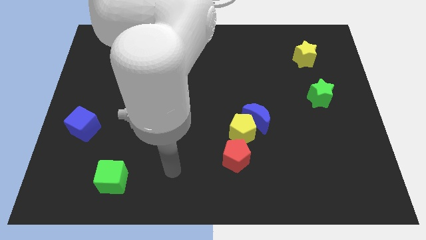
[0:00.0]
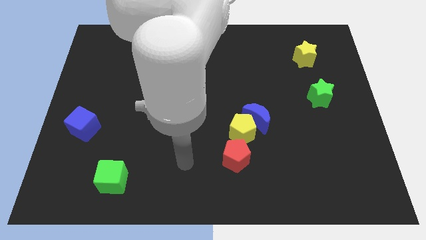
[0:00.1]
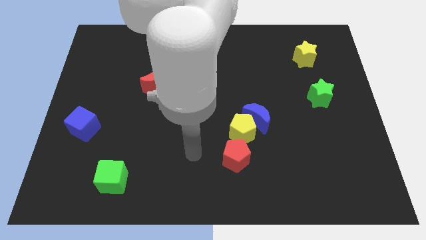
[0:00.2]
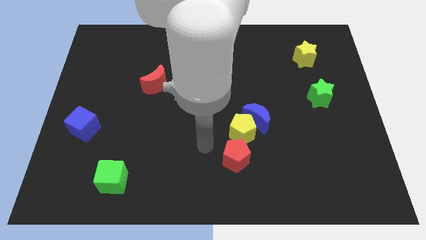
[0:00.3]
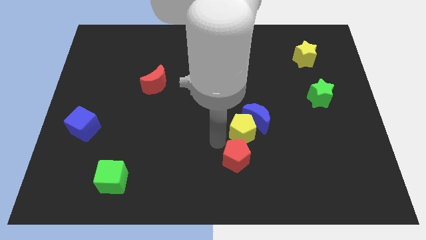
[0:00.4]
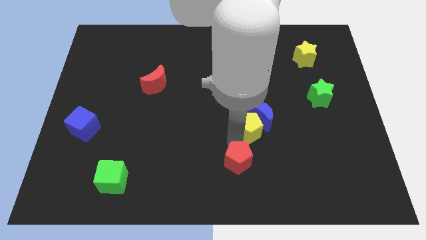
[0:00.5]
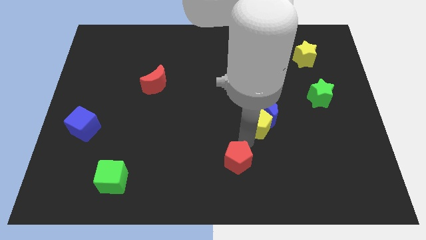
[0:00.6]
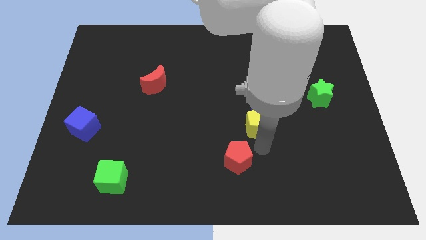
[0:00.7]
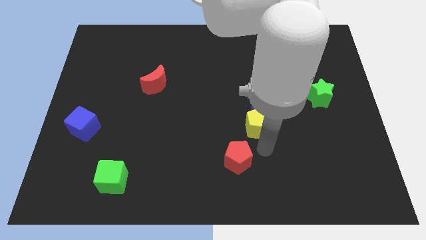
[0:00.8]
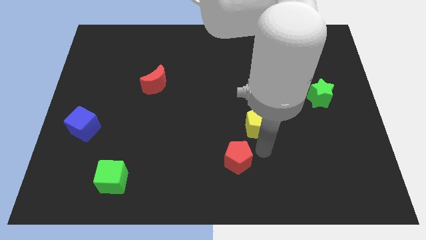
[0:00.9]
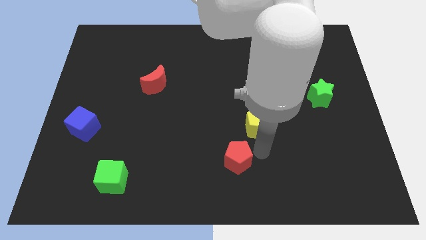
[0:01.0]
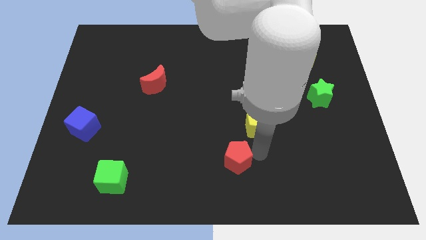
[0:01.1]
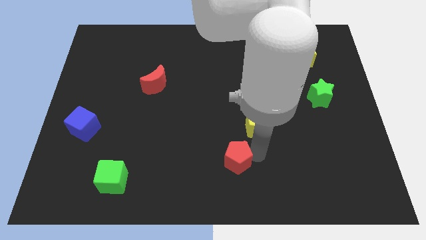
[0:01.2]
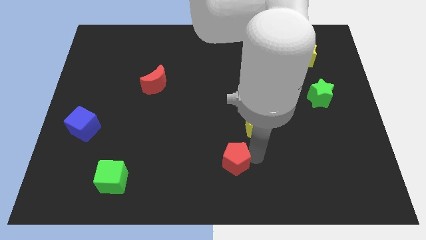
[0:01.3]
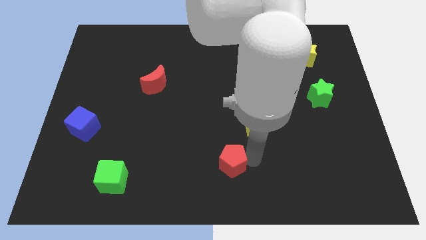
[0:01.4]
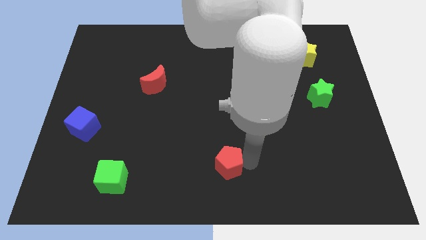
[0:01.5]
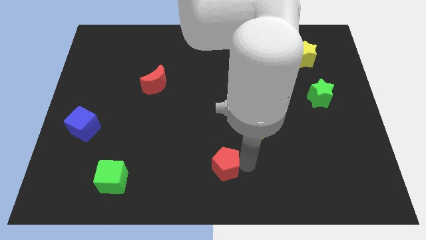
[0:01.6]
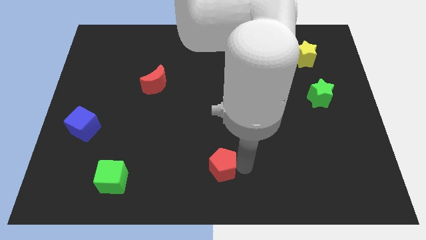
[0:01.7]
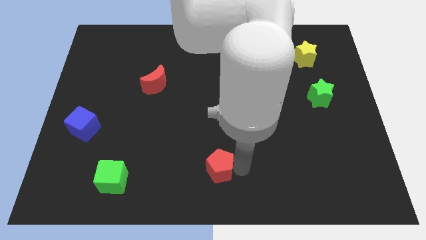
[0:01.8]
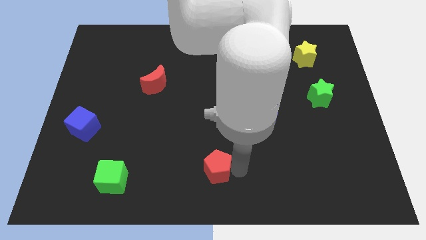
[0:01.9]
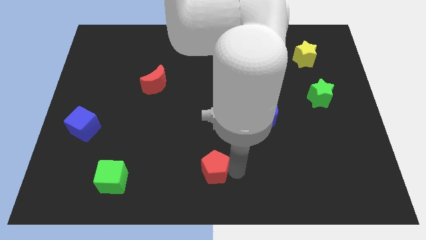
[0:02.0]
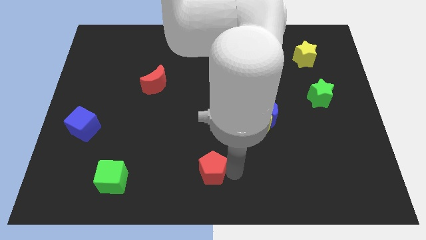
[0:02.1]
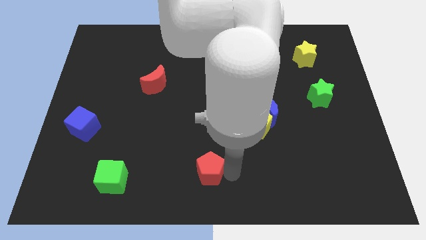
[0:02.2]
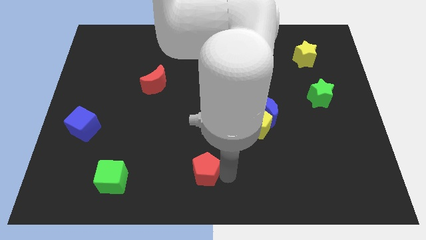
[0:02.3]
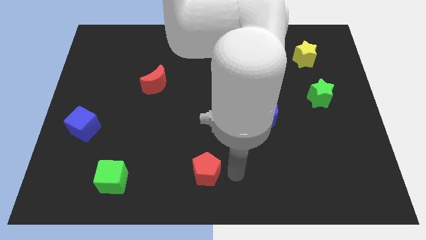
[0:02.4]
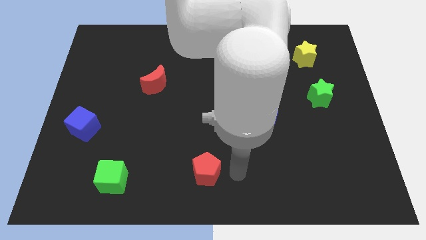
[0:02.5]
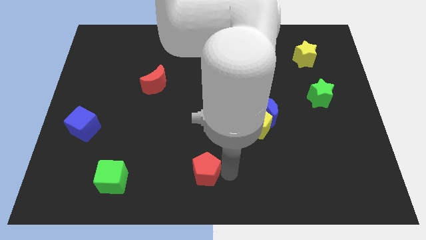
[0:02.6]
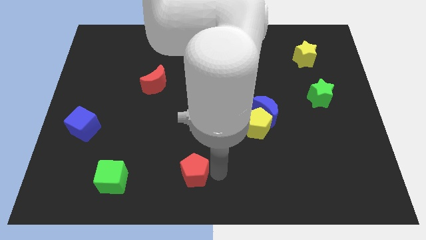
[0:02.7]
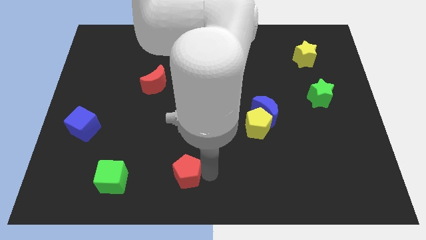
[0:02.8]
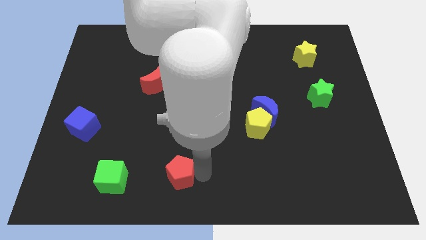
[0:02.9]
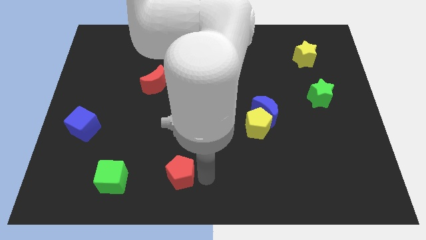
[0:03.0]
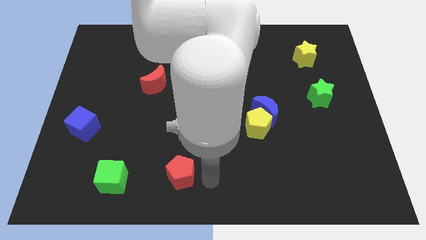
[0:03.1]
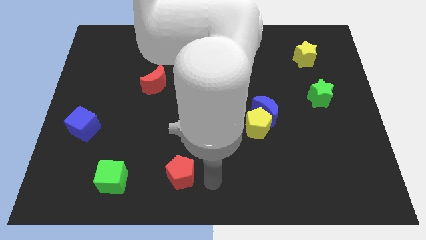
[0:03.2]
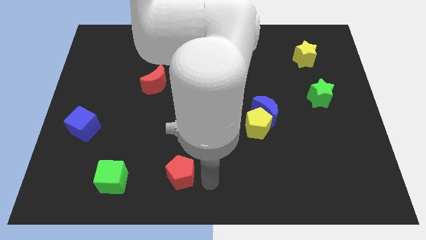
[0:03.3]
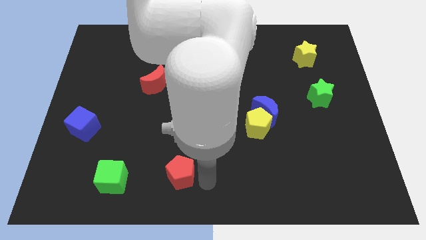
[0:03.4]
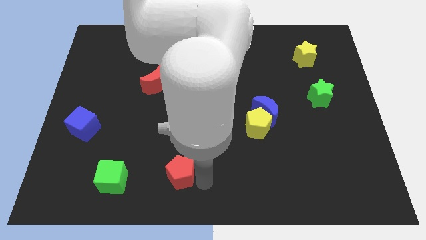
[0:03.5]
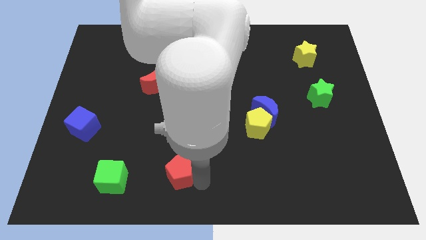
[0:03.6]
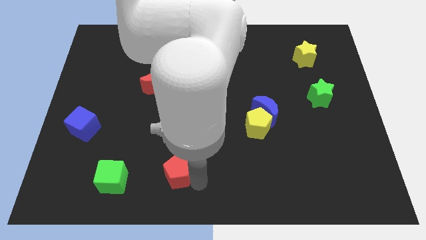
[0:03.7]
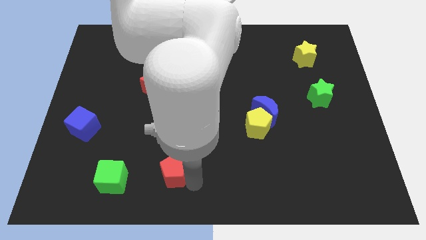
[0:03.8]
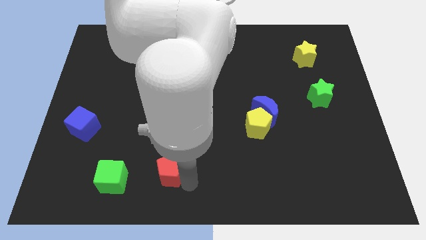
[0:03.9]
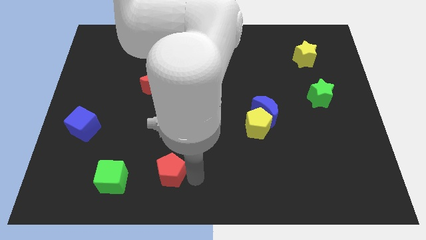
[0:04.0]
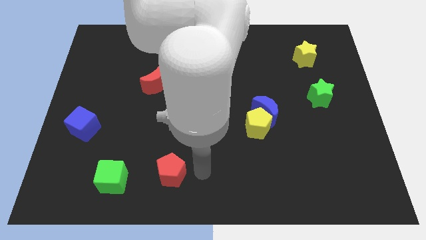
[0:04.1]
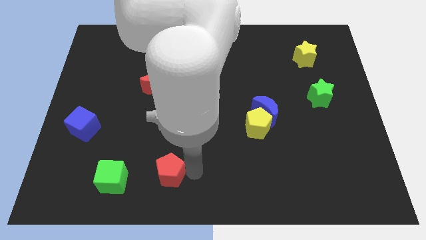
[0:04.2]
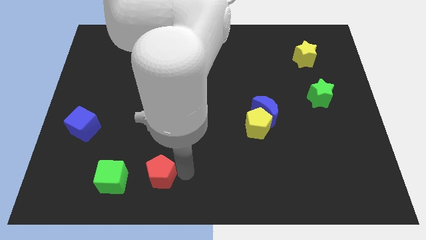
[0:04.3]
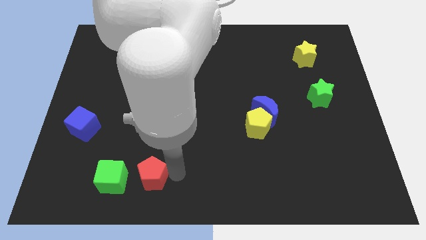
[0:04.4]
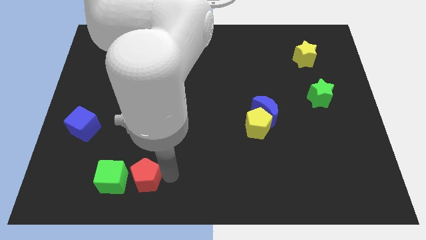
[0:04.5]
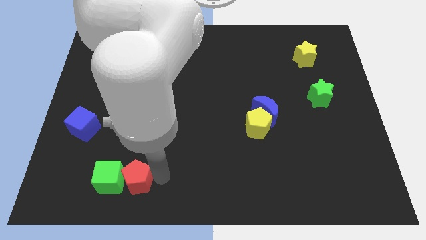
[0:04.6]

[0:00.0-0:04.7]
put the red pentagon to the green cube

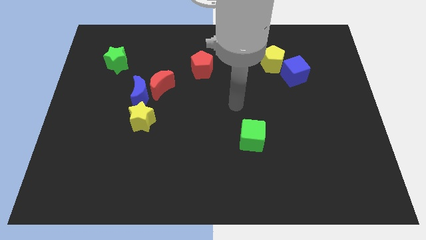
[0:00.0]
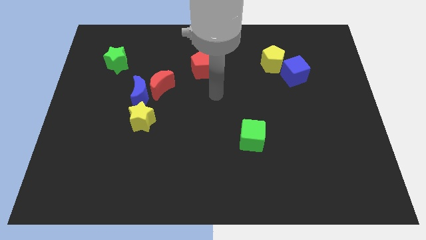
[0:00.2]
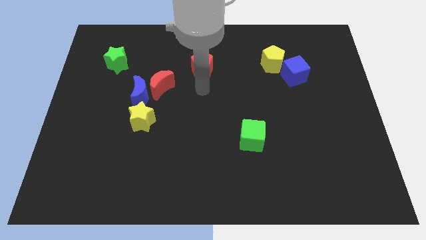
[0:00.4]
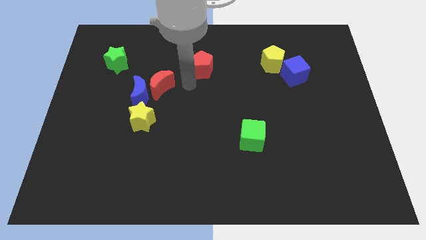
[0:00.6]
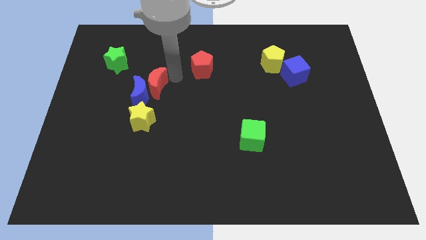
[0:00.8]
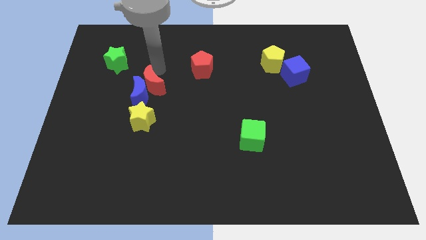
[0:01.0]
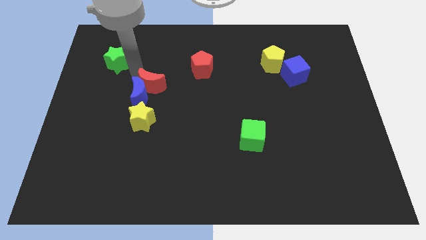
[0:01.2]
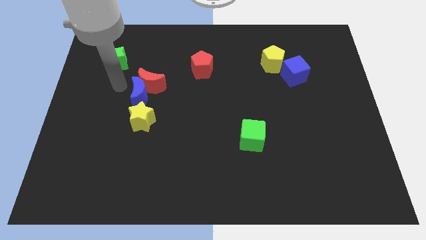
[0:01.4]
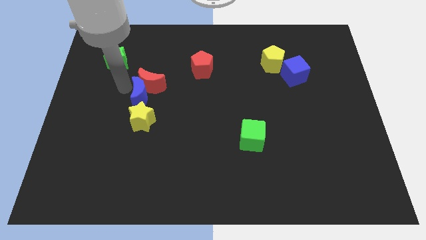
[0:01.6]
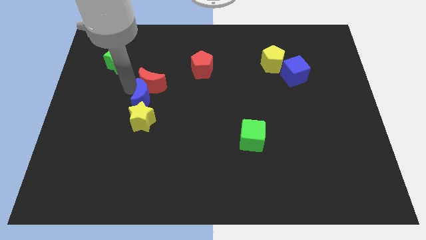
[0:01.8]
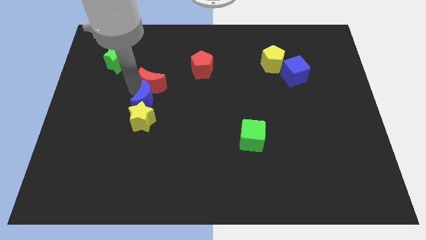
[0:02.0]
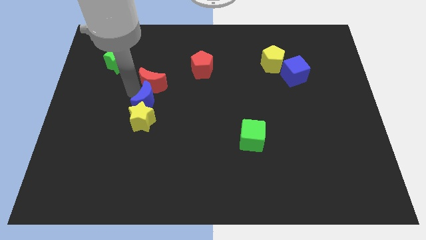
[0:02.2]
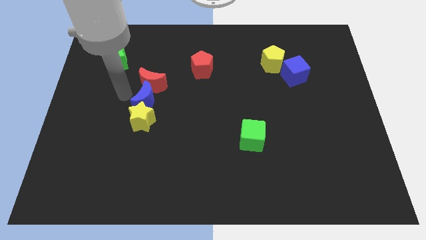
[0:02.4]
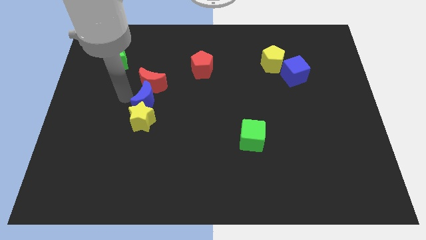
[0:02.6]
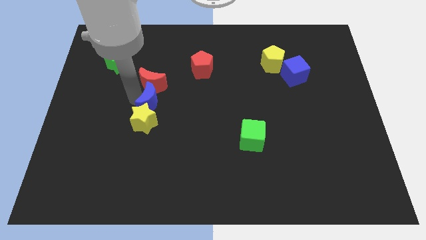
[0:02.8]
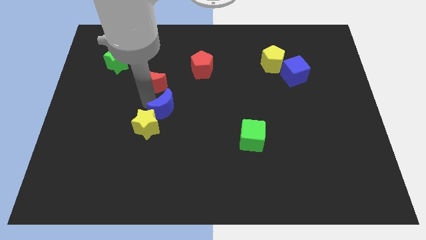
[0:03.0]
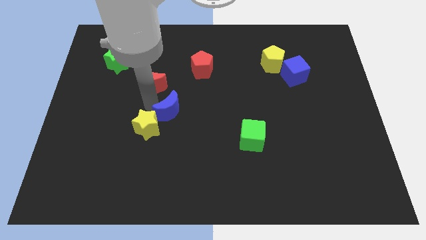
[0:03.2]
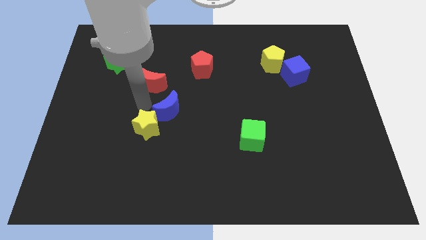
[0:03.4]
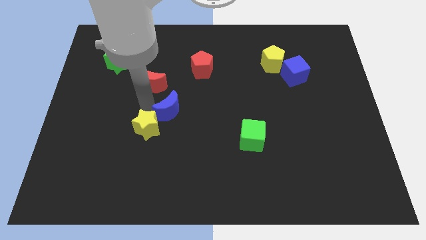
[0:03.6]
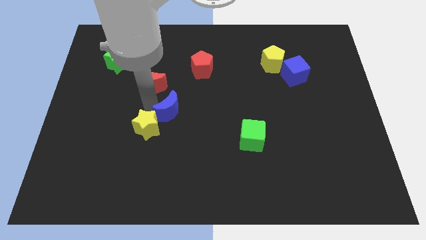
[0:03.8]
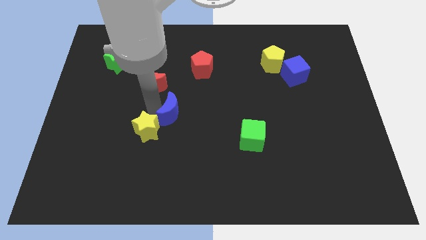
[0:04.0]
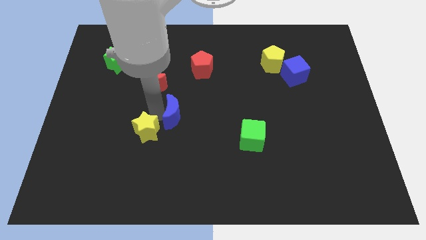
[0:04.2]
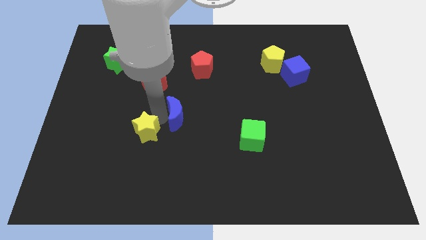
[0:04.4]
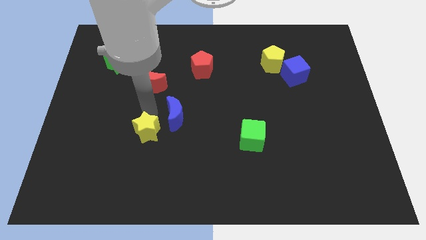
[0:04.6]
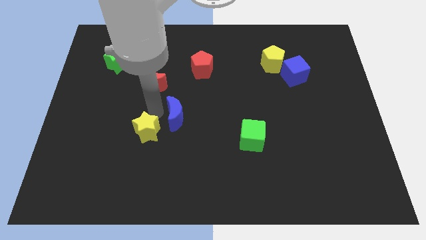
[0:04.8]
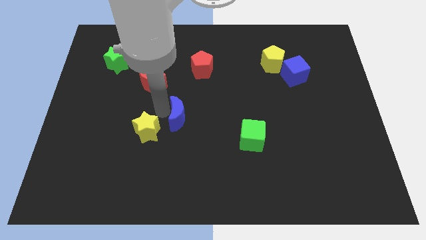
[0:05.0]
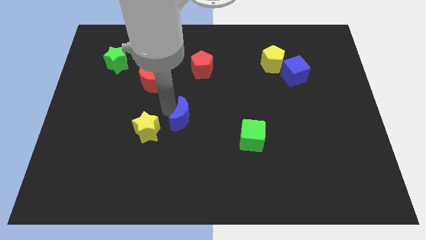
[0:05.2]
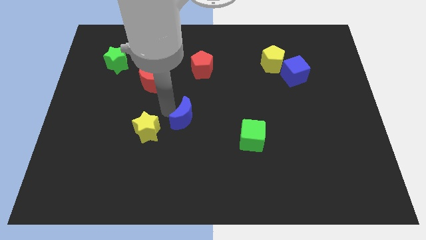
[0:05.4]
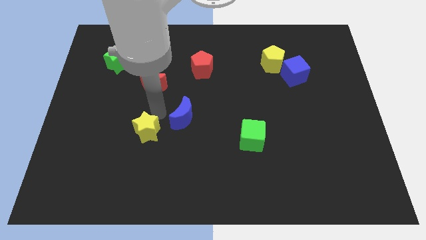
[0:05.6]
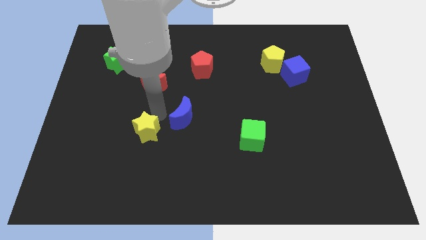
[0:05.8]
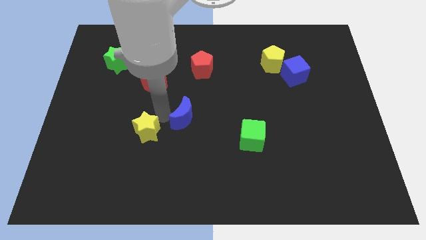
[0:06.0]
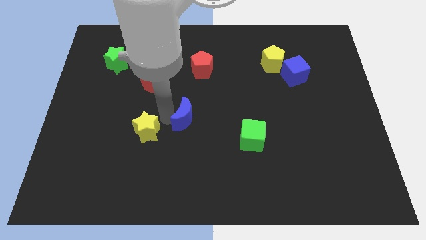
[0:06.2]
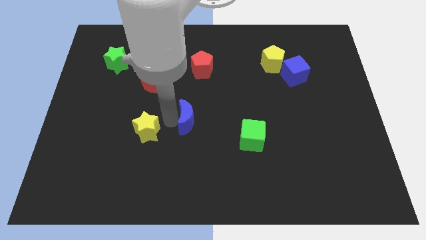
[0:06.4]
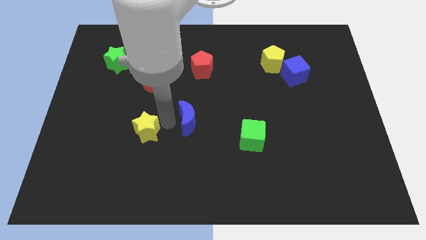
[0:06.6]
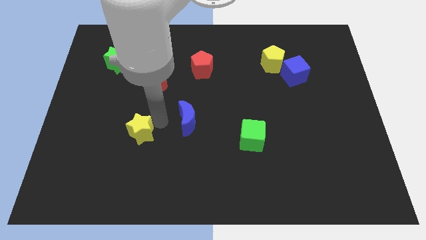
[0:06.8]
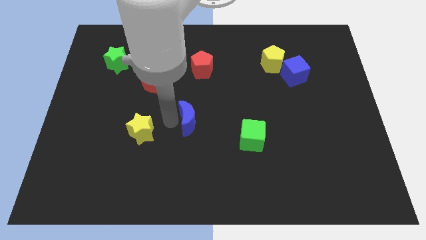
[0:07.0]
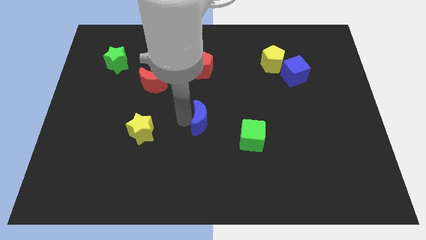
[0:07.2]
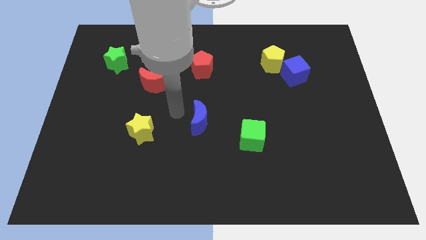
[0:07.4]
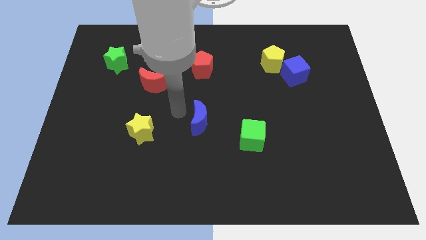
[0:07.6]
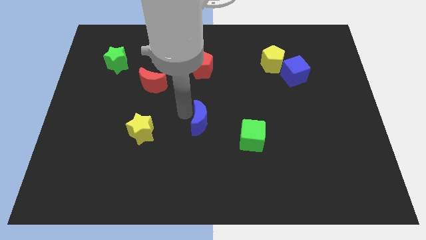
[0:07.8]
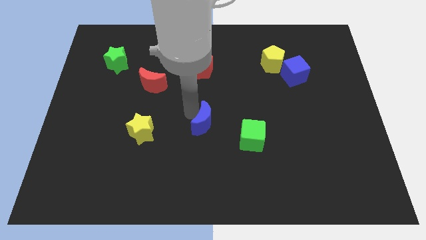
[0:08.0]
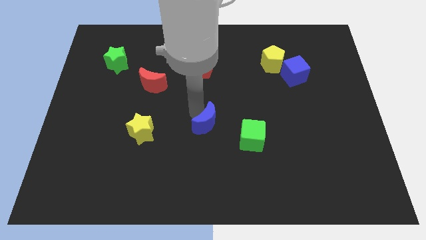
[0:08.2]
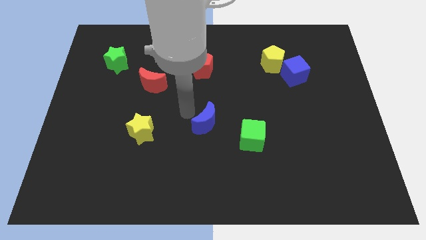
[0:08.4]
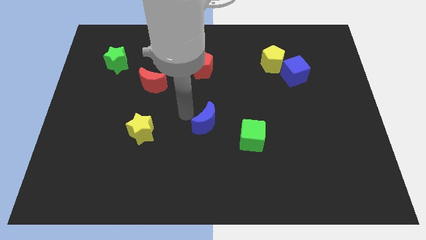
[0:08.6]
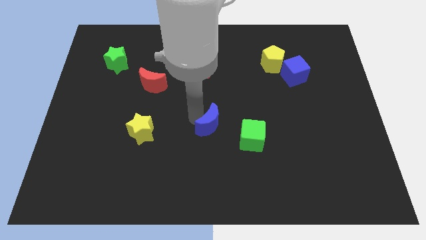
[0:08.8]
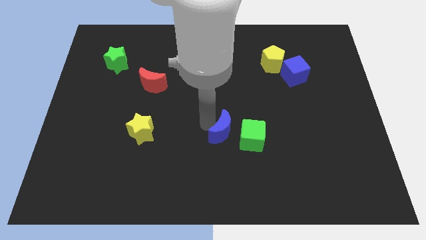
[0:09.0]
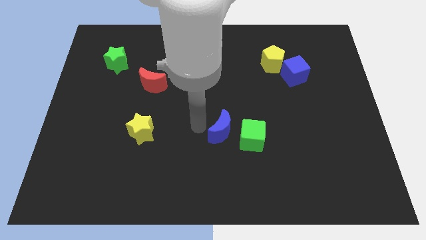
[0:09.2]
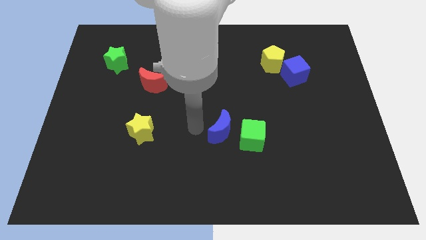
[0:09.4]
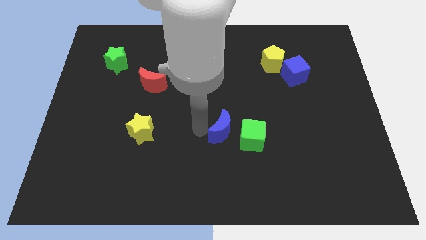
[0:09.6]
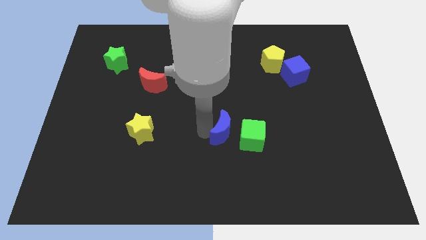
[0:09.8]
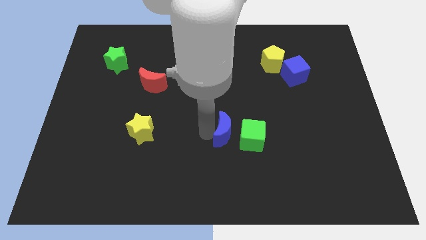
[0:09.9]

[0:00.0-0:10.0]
push the blue moon next to the green cube
